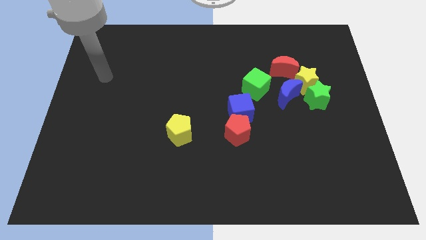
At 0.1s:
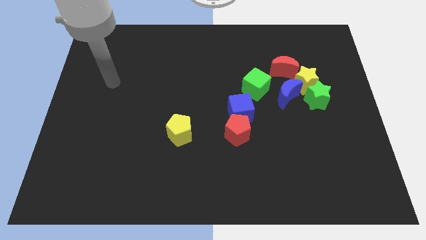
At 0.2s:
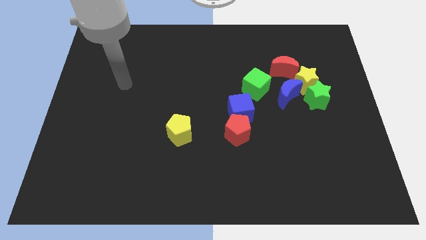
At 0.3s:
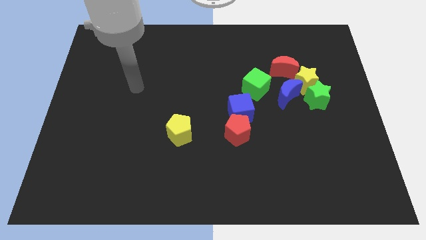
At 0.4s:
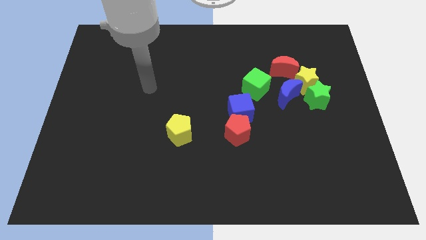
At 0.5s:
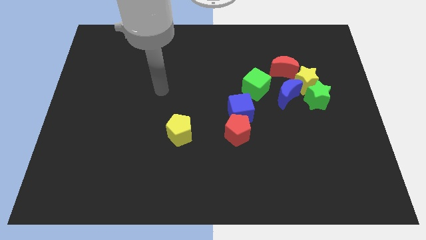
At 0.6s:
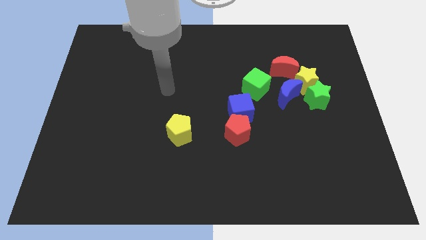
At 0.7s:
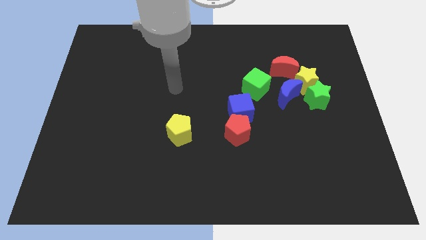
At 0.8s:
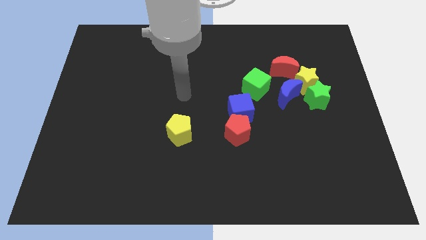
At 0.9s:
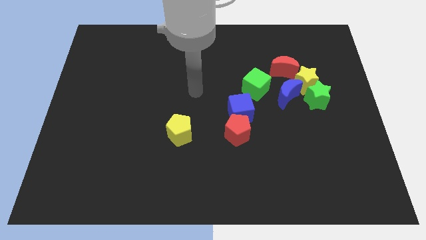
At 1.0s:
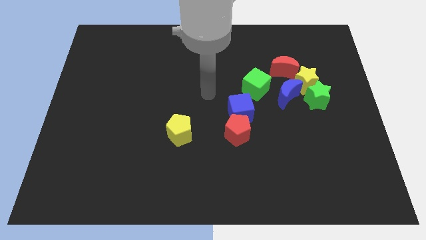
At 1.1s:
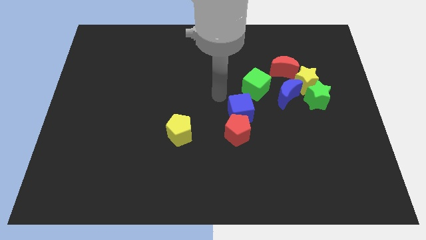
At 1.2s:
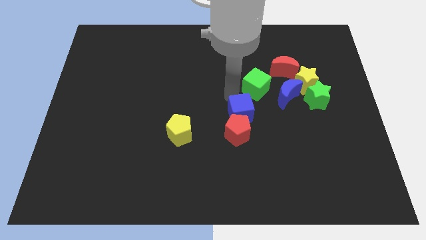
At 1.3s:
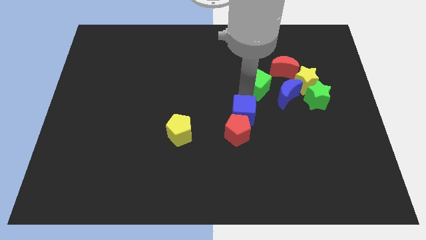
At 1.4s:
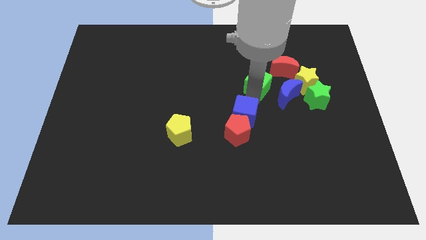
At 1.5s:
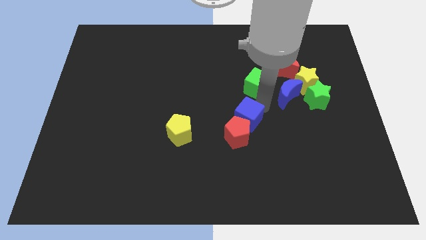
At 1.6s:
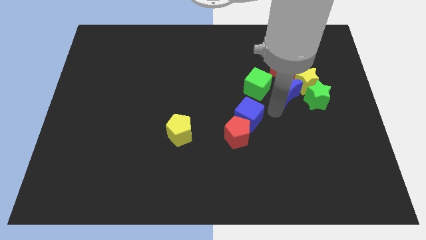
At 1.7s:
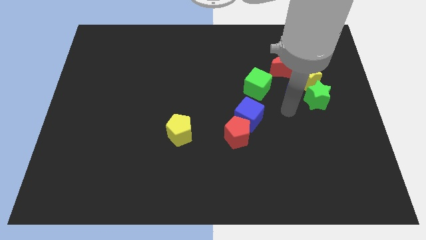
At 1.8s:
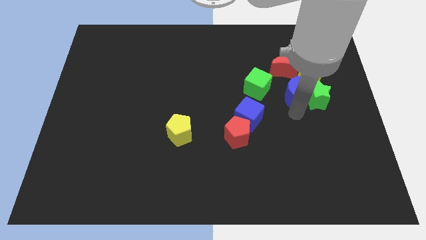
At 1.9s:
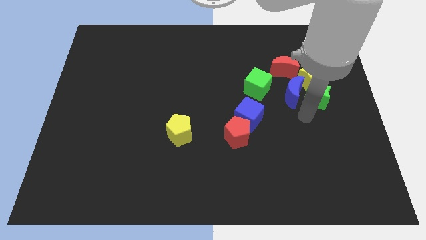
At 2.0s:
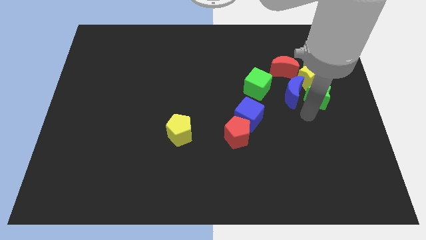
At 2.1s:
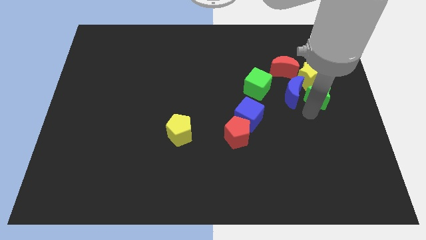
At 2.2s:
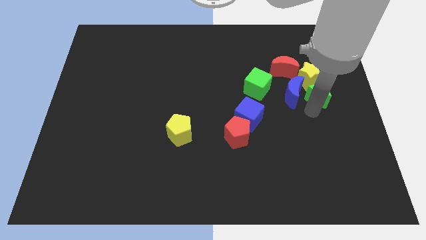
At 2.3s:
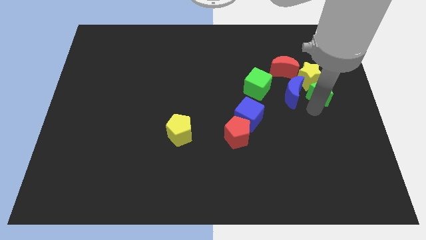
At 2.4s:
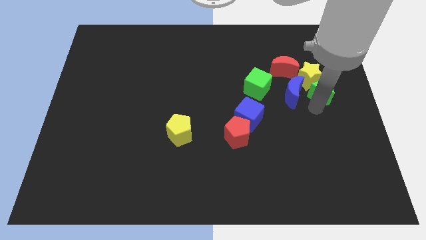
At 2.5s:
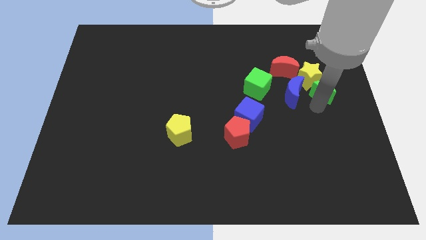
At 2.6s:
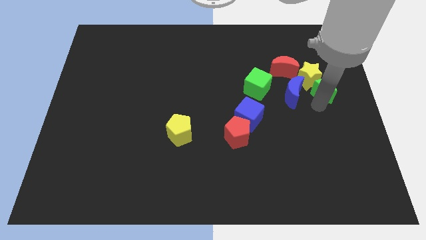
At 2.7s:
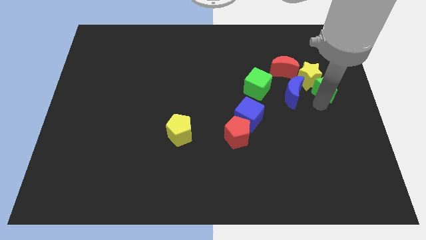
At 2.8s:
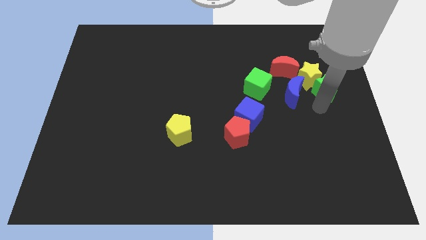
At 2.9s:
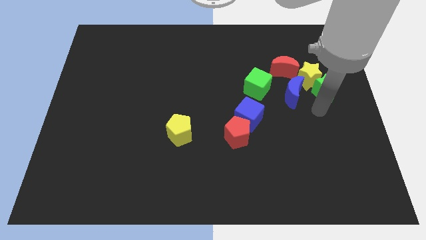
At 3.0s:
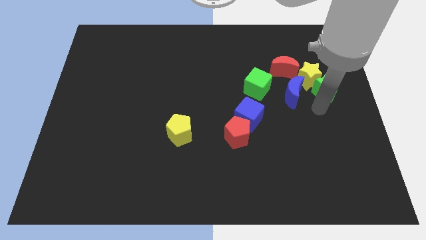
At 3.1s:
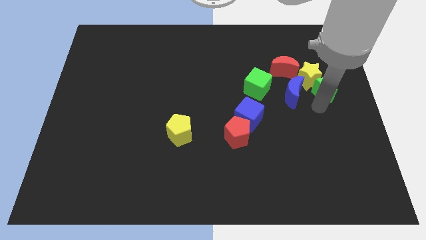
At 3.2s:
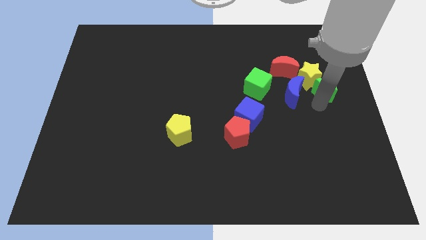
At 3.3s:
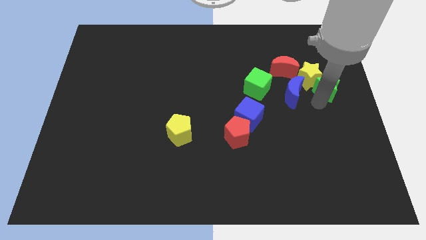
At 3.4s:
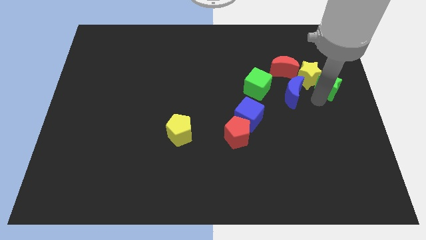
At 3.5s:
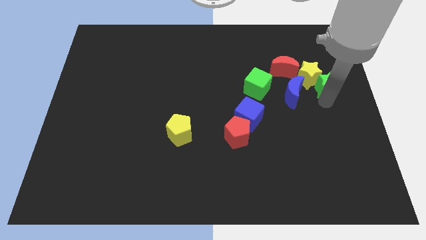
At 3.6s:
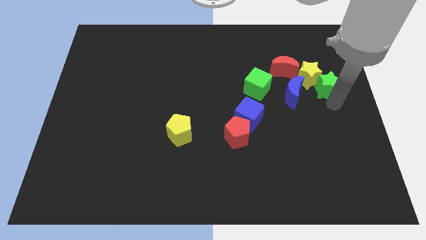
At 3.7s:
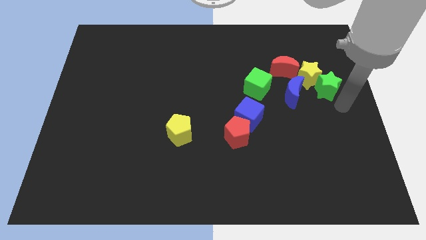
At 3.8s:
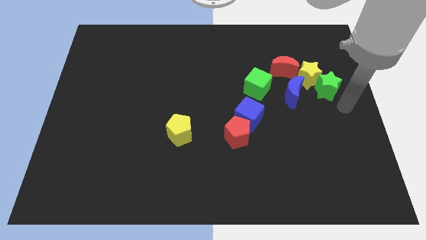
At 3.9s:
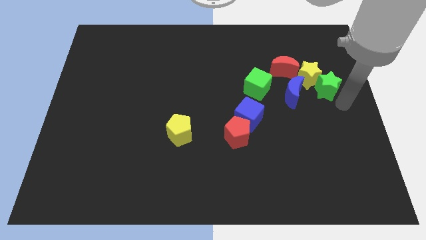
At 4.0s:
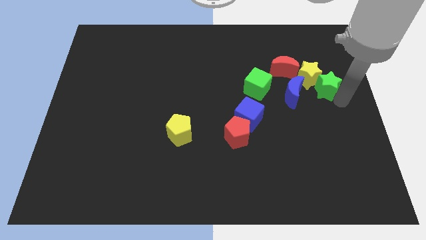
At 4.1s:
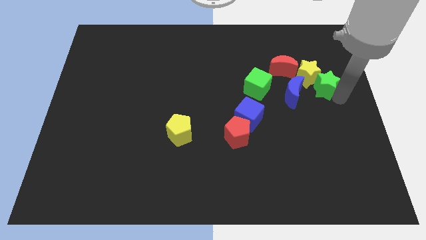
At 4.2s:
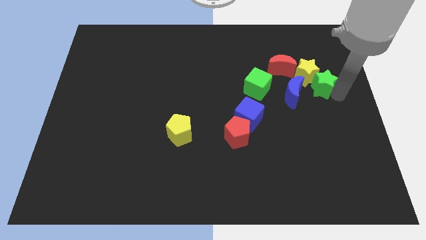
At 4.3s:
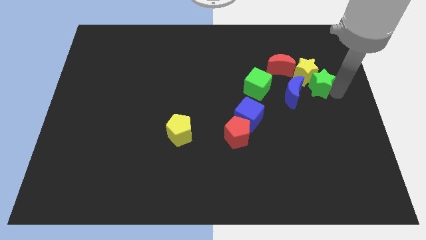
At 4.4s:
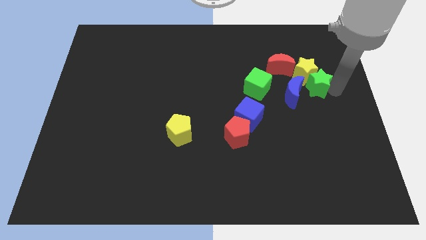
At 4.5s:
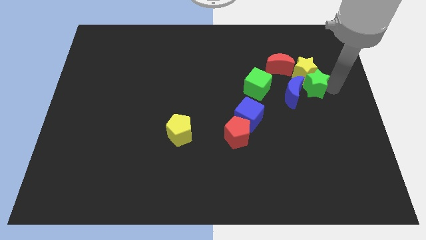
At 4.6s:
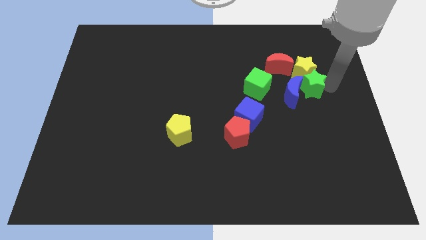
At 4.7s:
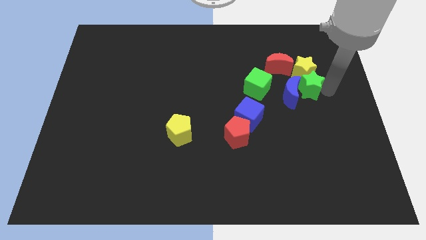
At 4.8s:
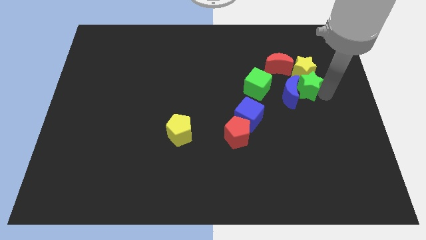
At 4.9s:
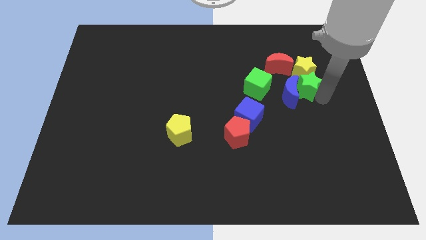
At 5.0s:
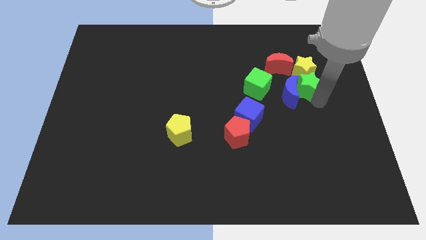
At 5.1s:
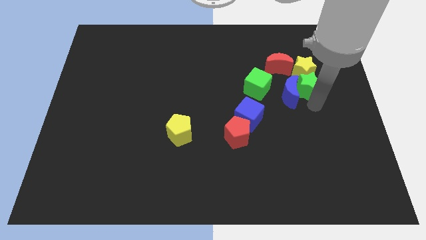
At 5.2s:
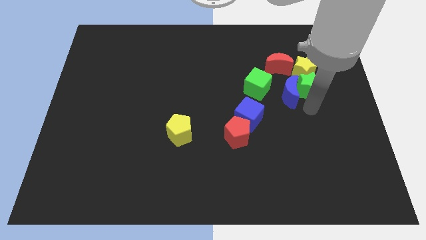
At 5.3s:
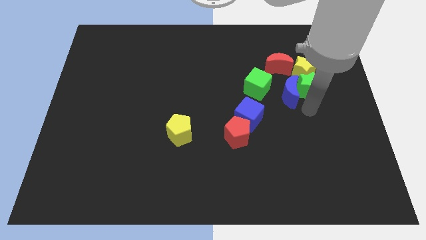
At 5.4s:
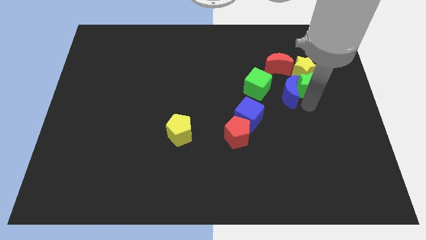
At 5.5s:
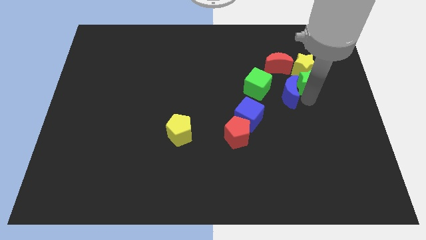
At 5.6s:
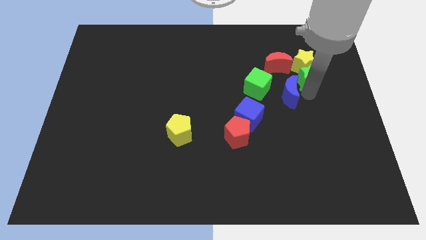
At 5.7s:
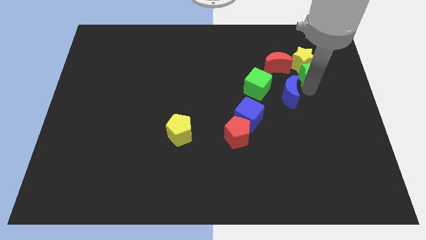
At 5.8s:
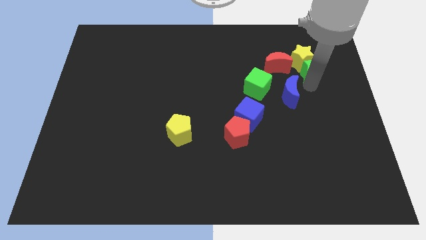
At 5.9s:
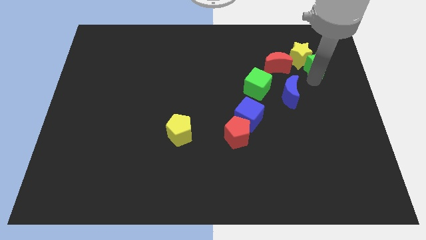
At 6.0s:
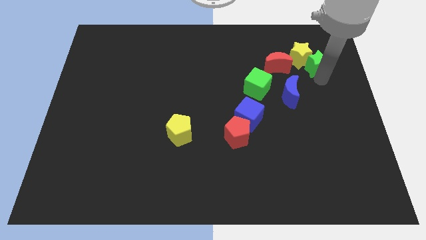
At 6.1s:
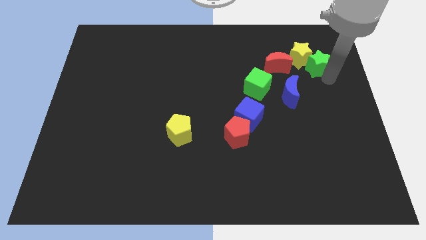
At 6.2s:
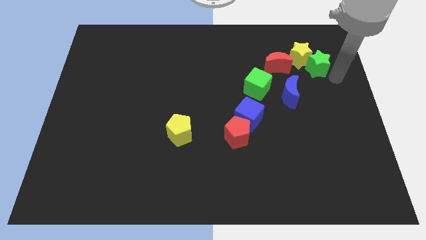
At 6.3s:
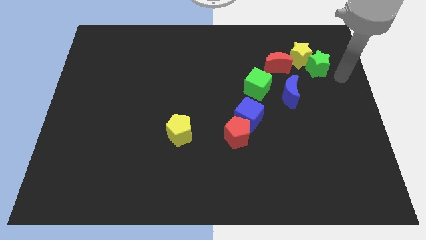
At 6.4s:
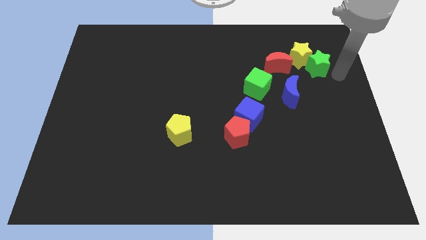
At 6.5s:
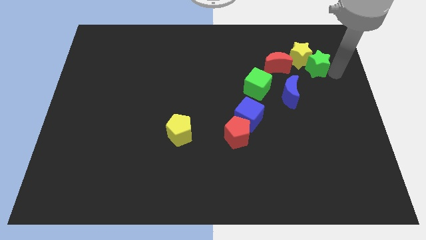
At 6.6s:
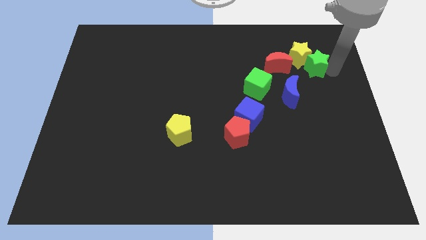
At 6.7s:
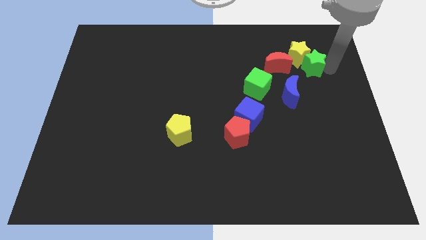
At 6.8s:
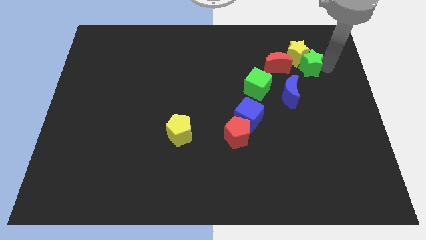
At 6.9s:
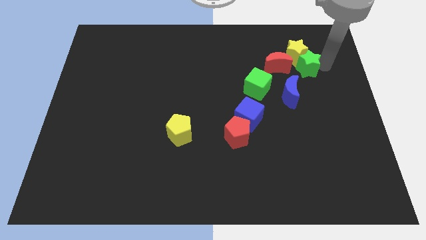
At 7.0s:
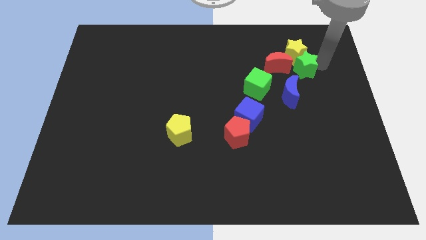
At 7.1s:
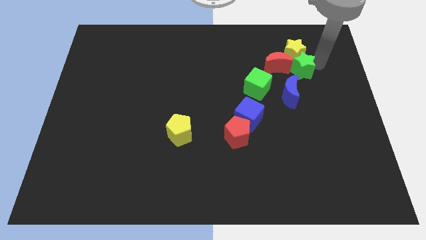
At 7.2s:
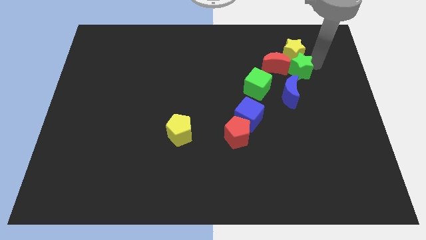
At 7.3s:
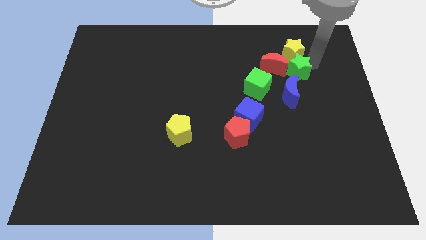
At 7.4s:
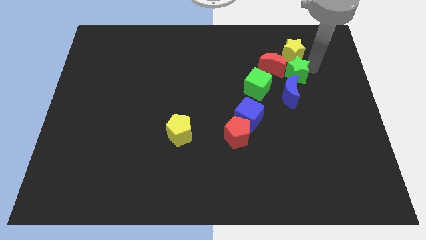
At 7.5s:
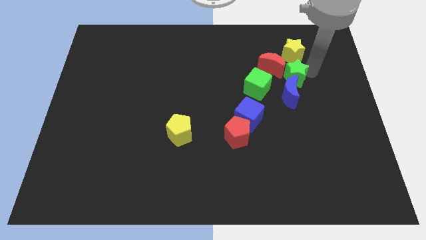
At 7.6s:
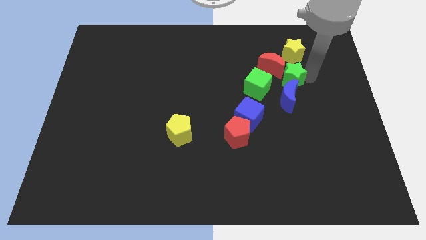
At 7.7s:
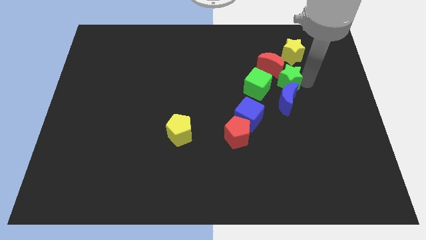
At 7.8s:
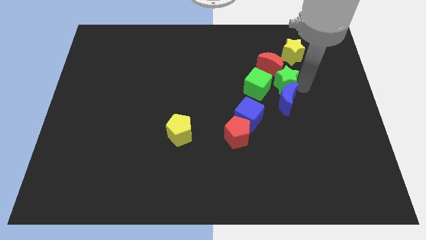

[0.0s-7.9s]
push the green star diagonally up and to the left of the blue moon

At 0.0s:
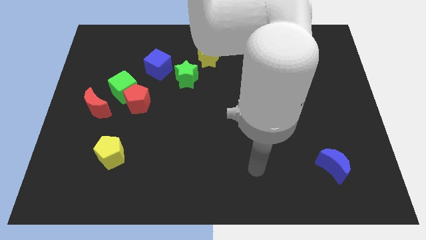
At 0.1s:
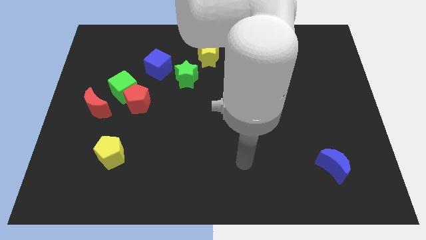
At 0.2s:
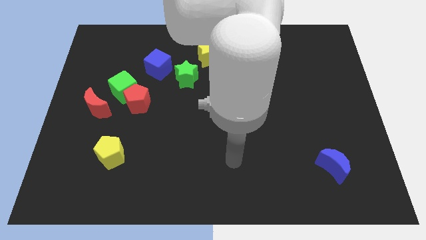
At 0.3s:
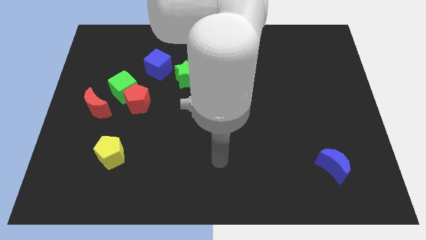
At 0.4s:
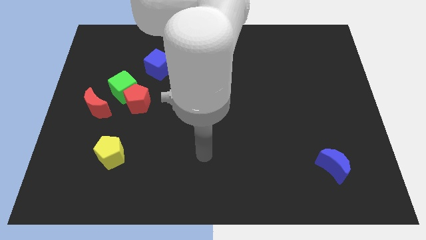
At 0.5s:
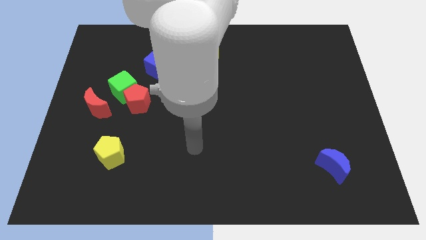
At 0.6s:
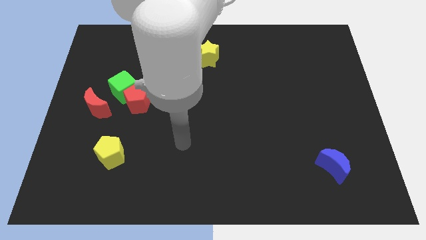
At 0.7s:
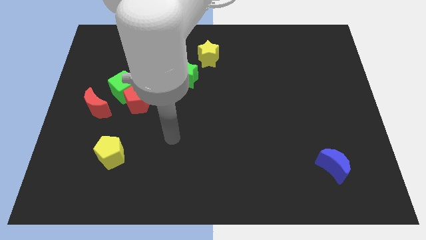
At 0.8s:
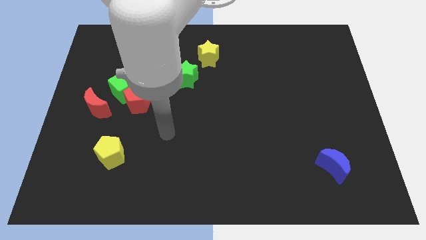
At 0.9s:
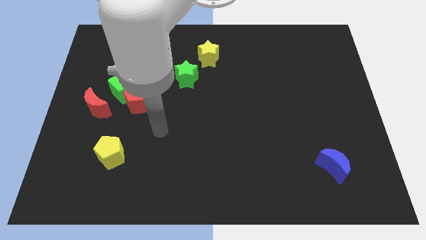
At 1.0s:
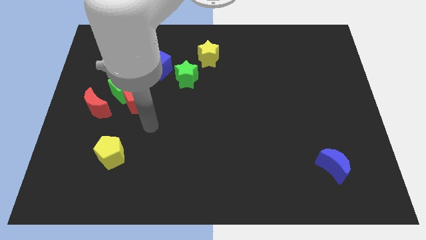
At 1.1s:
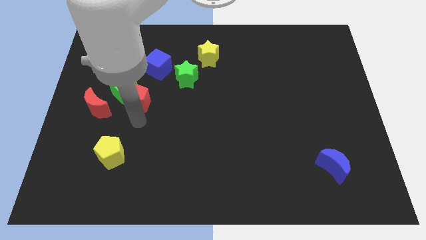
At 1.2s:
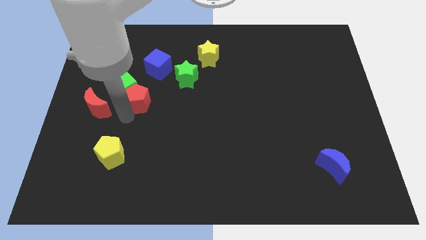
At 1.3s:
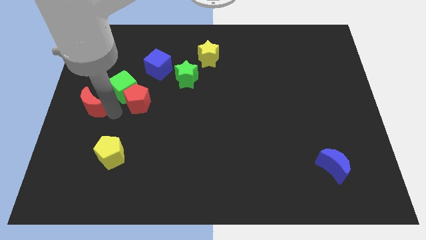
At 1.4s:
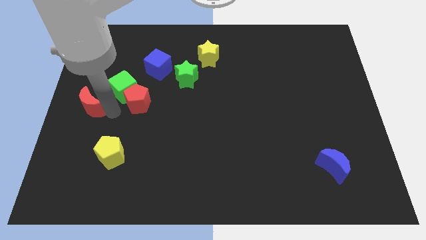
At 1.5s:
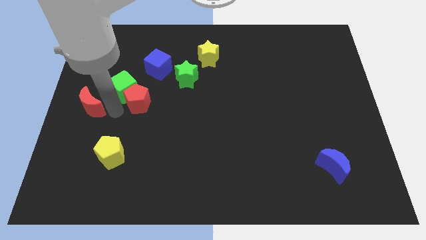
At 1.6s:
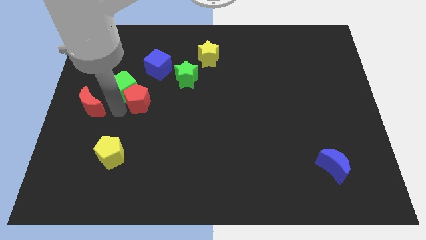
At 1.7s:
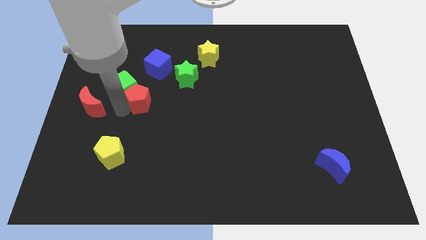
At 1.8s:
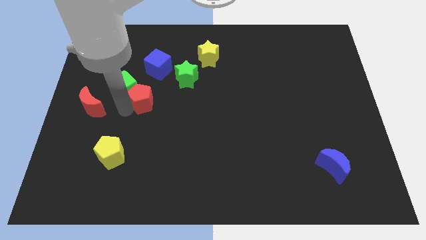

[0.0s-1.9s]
push the red pentagon to the bottom left of the green star
